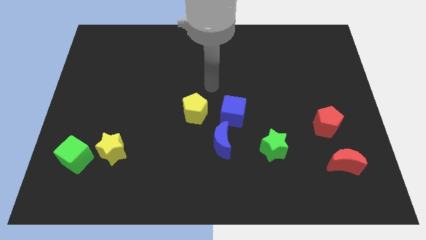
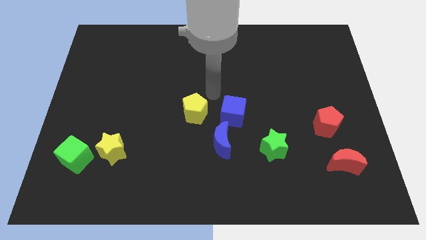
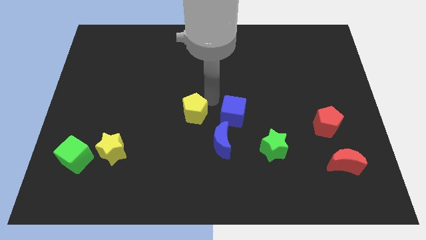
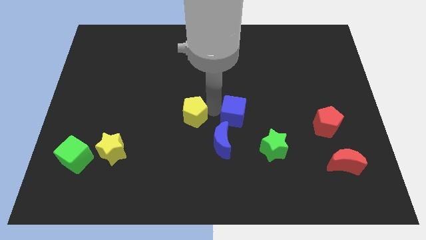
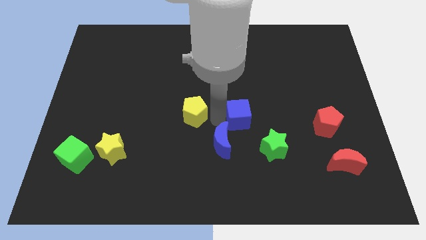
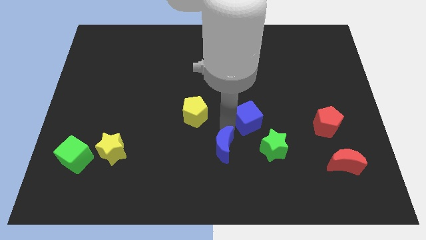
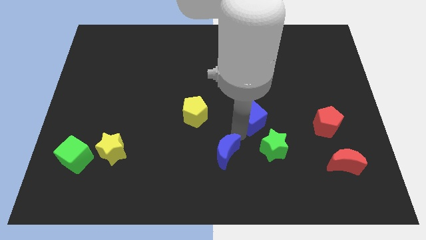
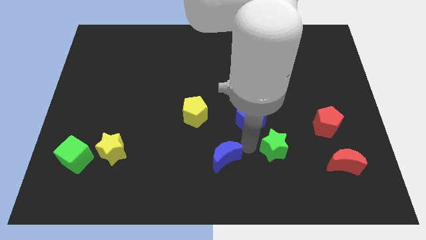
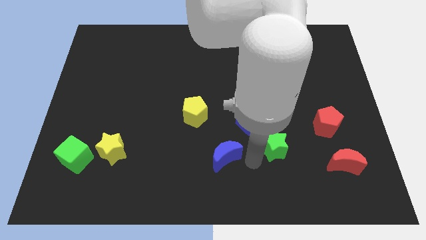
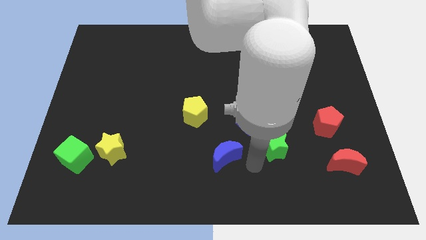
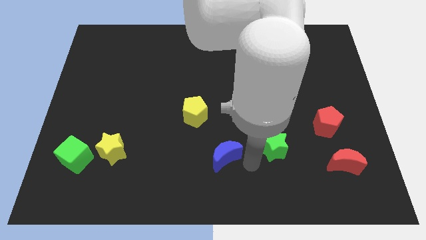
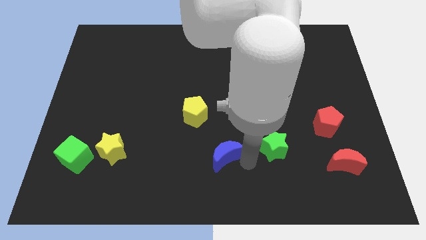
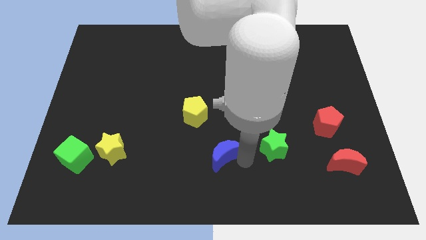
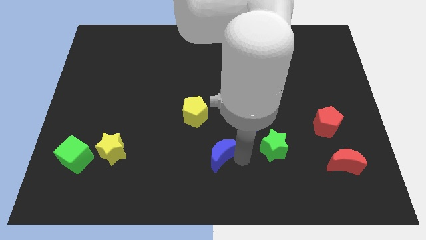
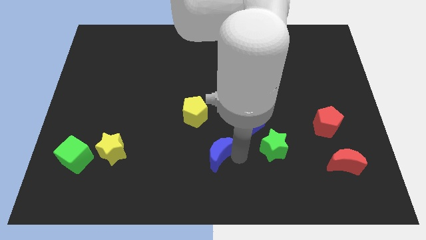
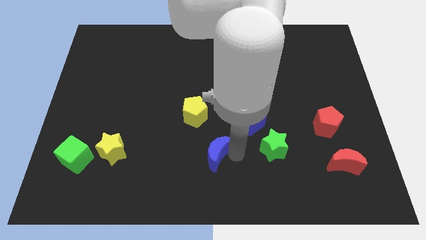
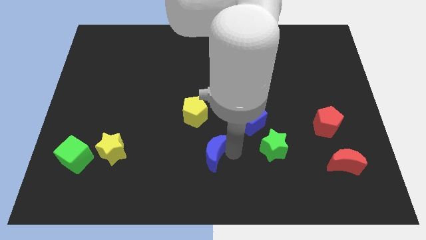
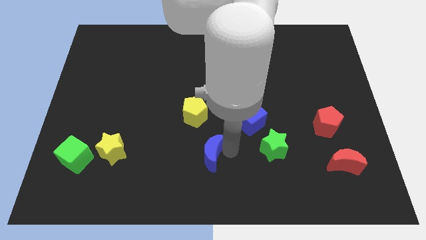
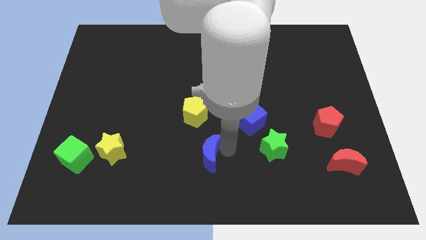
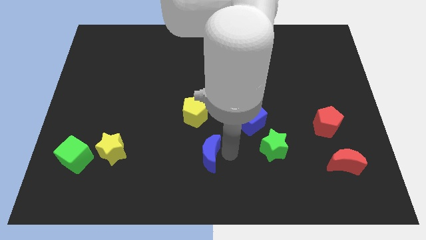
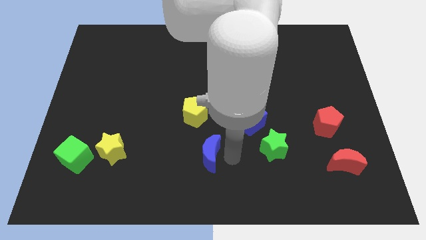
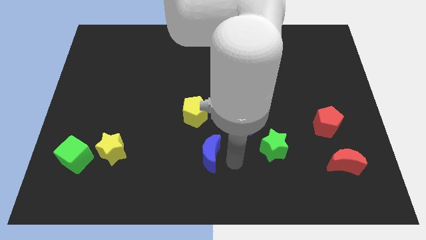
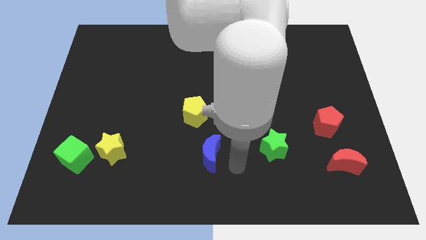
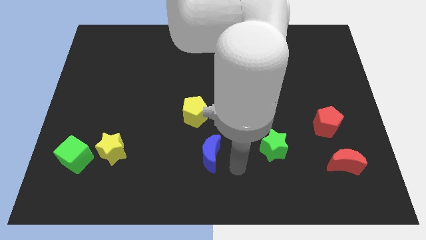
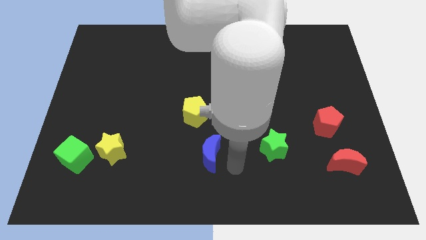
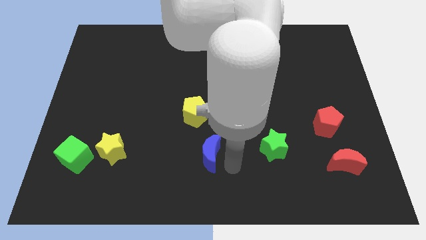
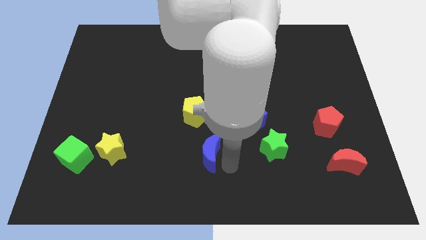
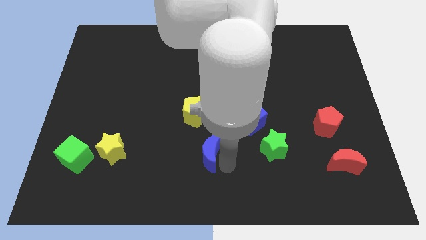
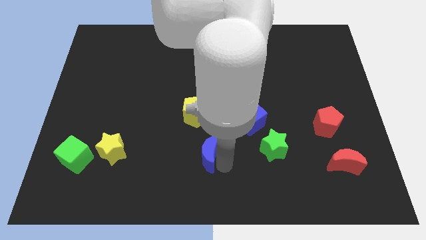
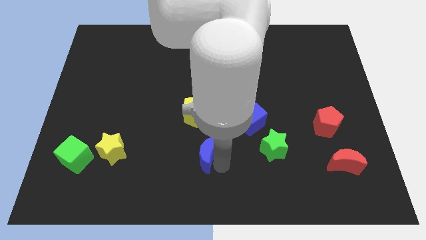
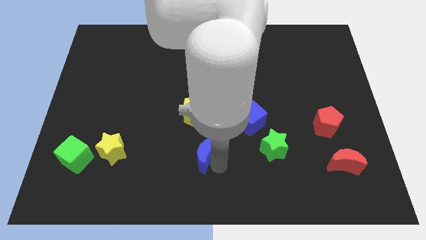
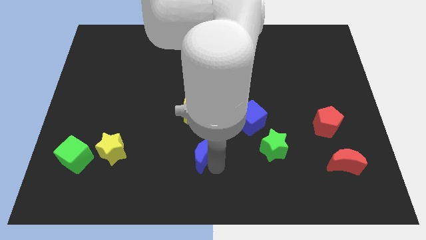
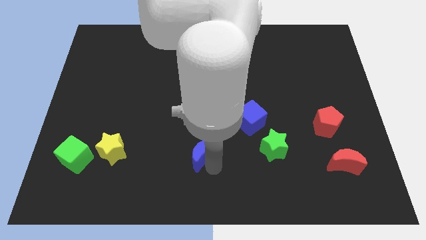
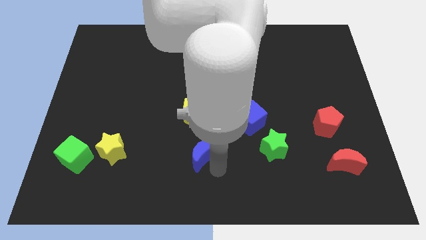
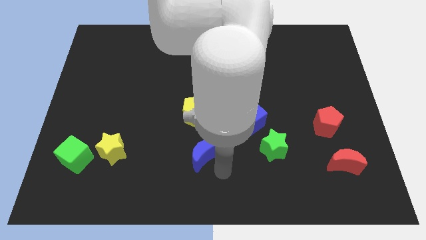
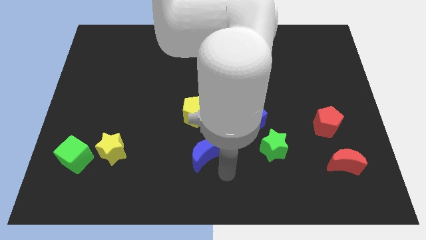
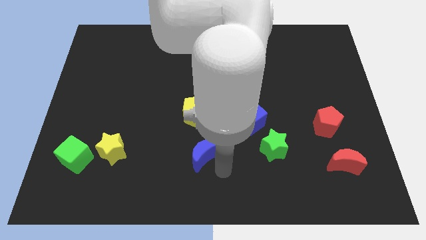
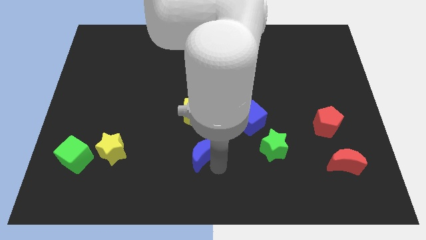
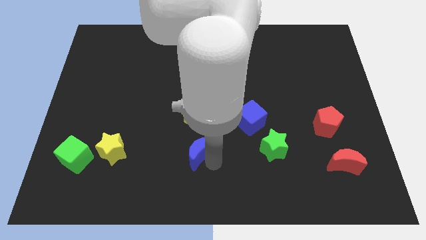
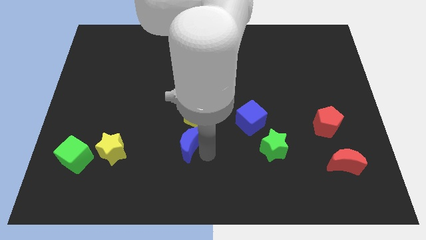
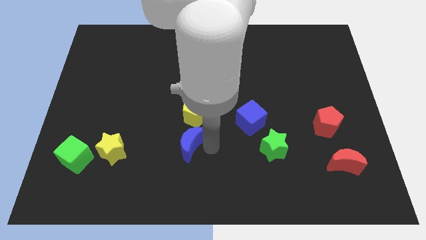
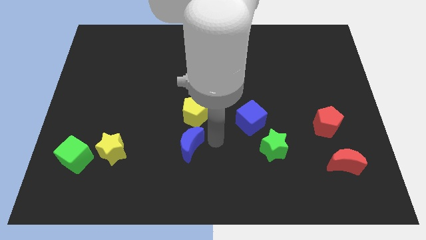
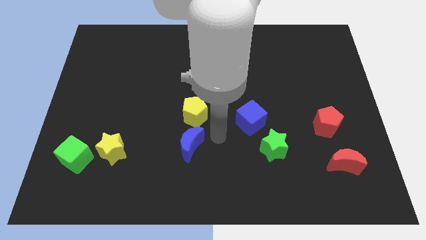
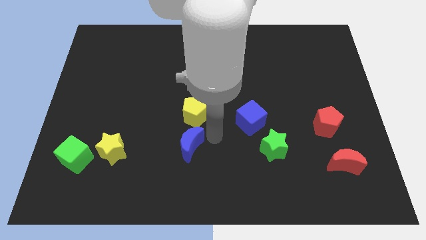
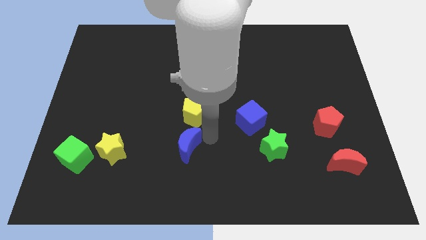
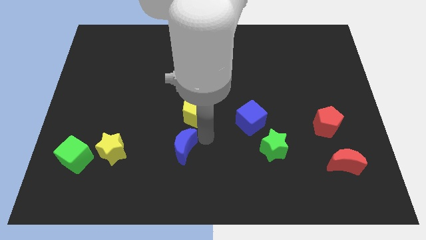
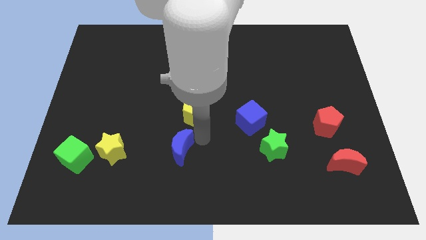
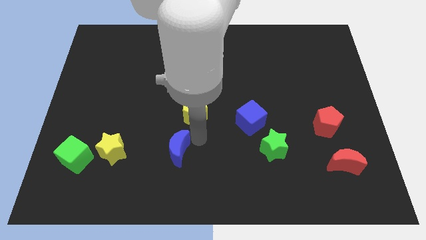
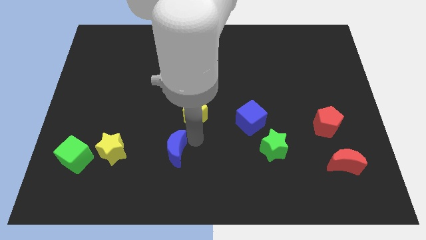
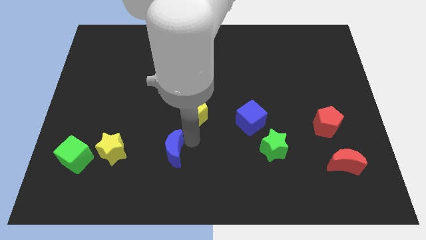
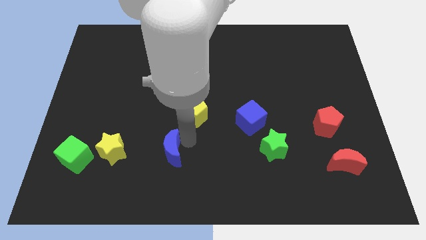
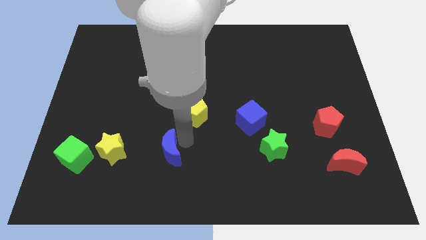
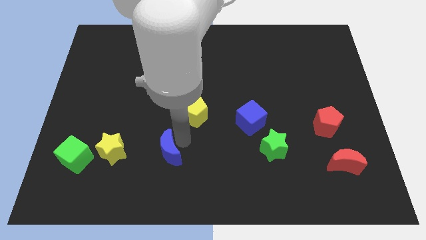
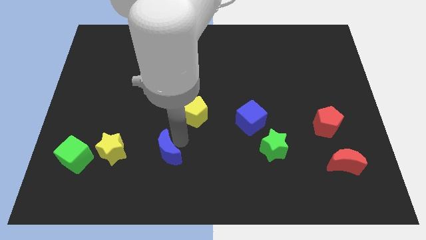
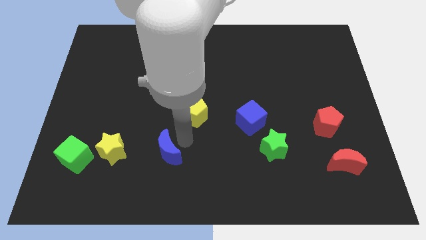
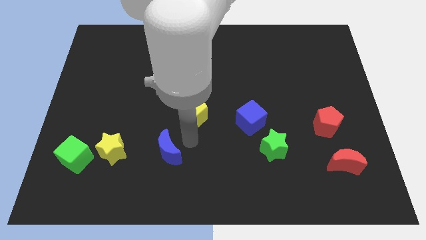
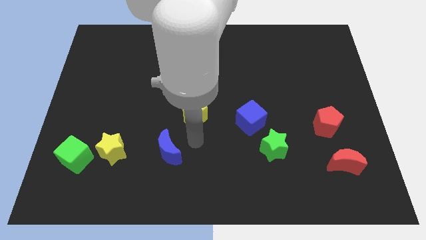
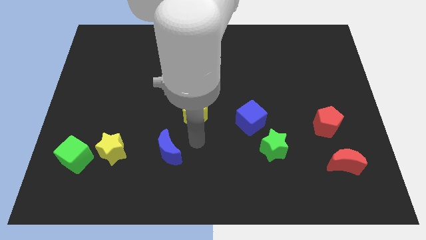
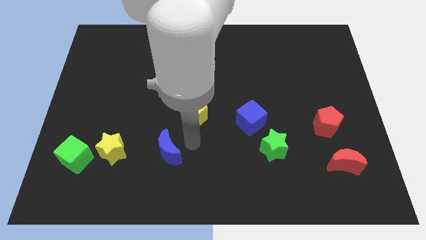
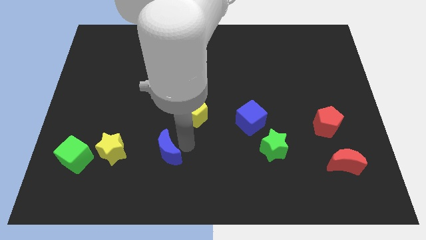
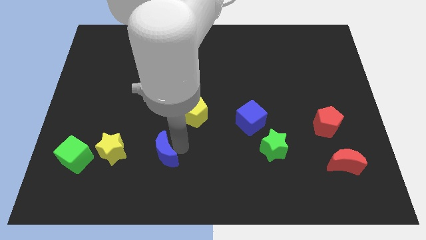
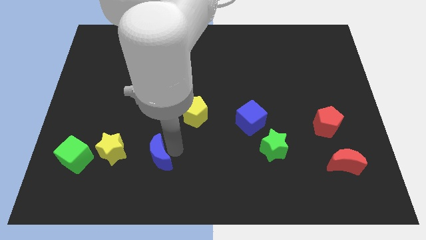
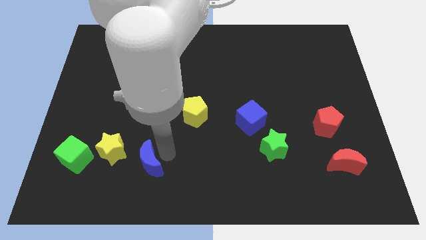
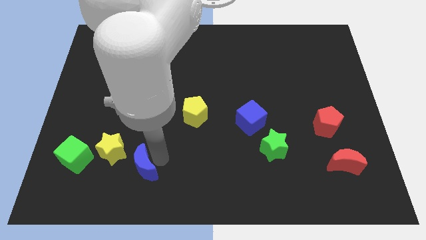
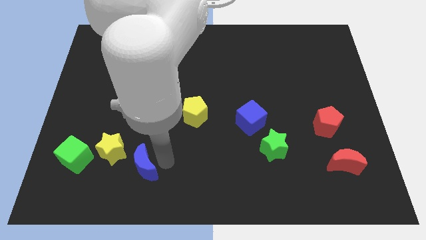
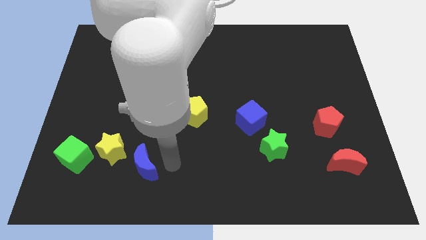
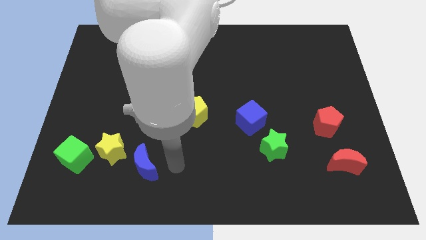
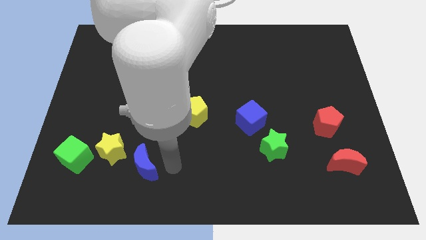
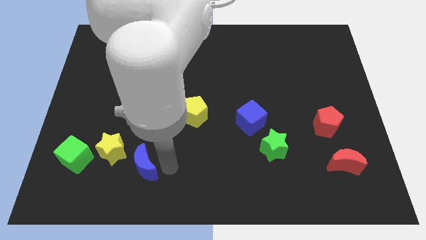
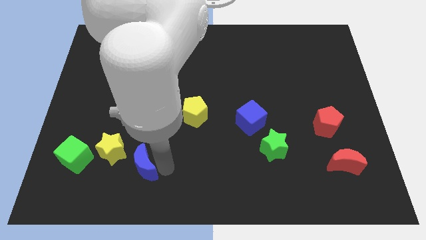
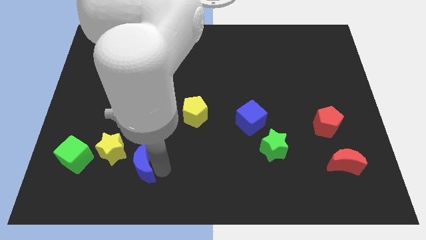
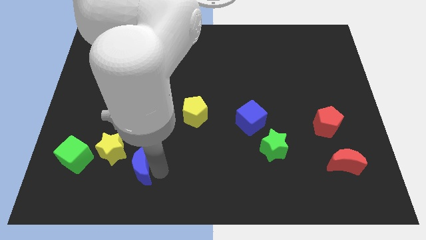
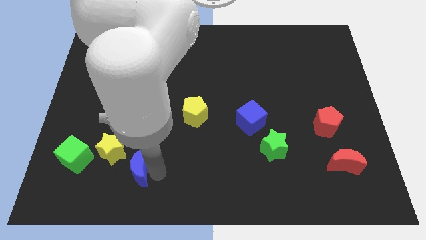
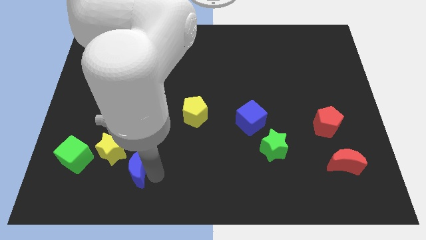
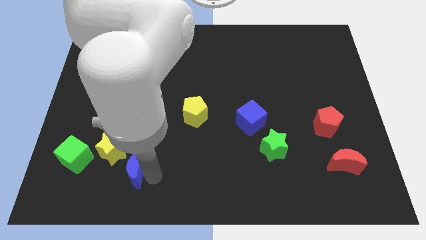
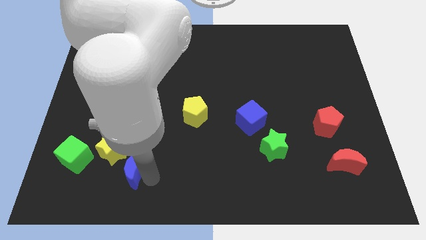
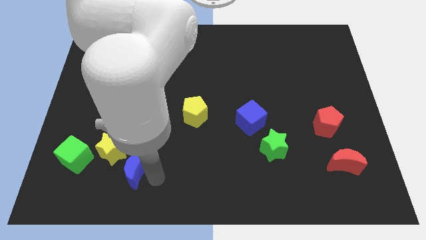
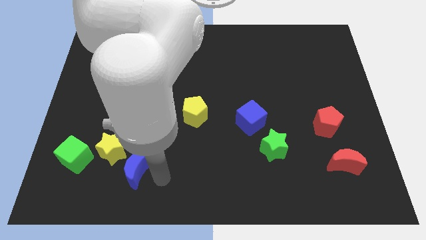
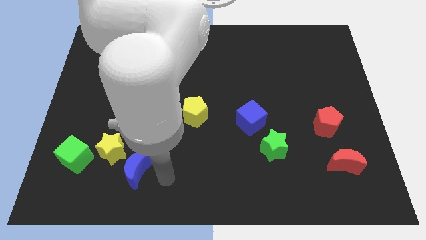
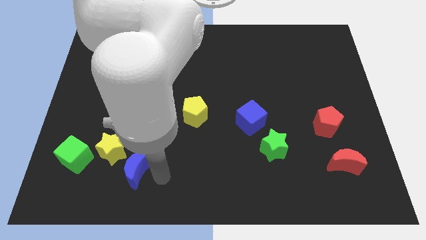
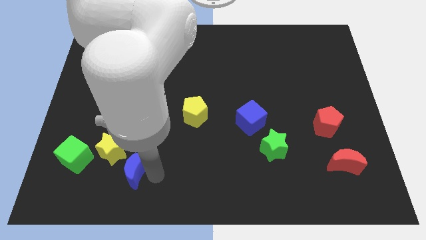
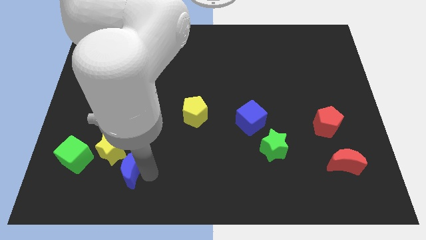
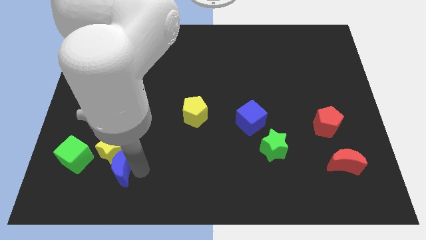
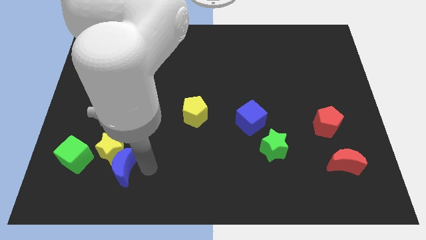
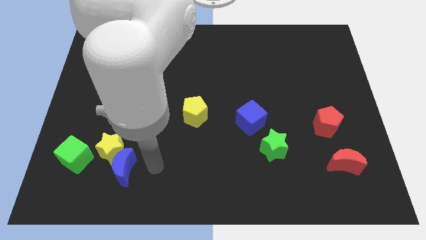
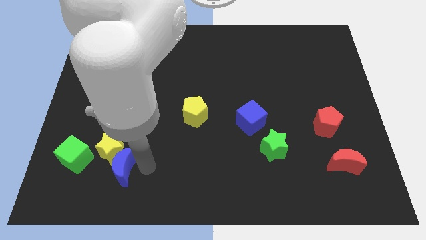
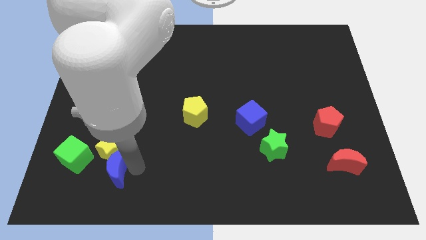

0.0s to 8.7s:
put the blue moon diagonally down and to the left of the yellow star
